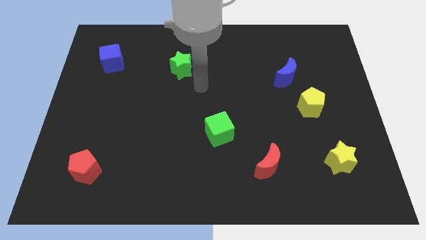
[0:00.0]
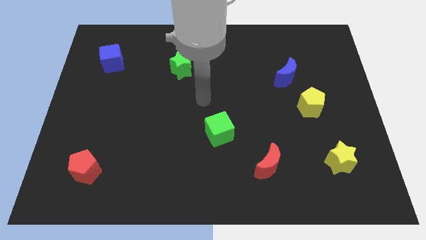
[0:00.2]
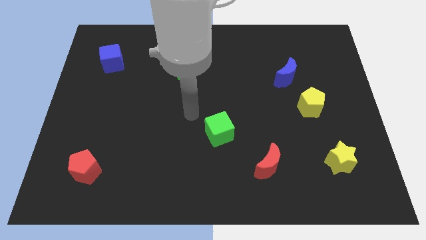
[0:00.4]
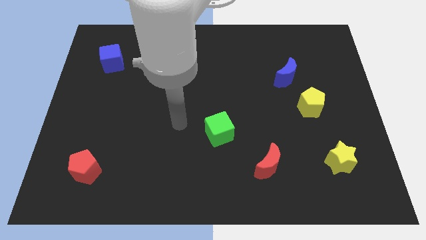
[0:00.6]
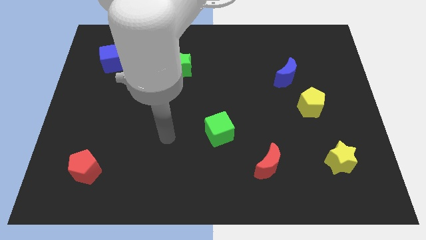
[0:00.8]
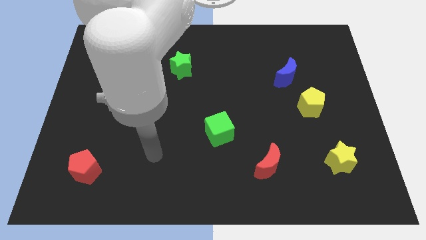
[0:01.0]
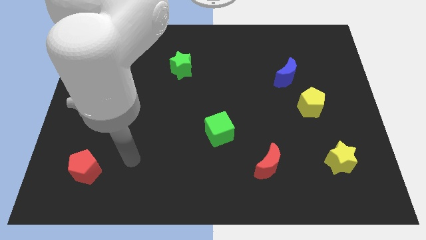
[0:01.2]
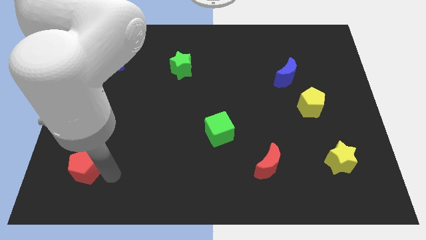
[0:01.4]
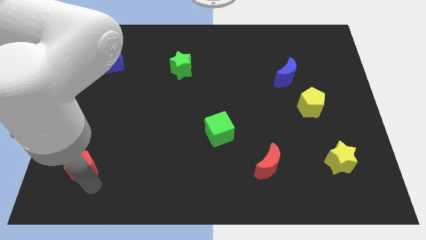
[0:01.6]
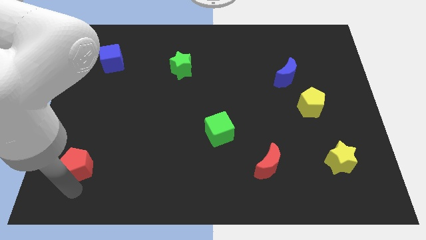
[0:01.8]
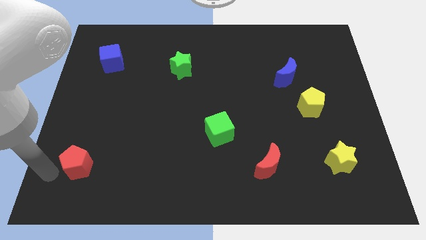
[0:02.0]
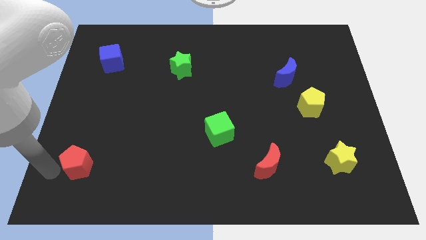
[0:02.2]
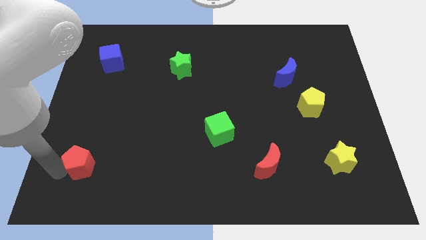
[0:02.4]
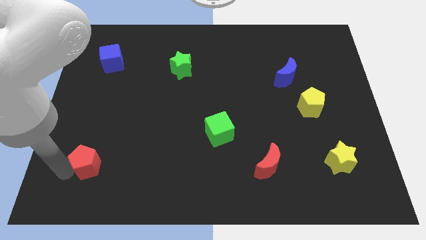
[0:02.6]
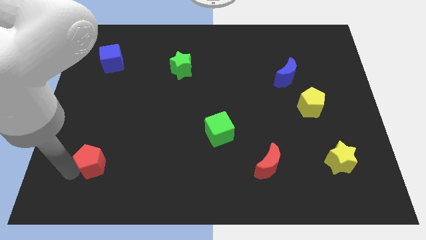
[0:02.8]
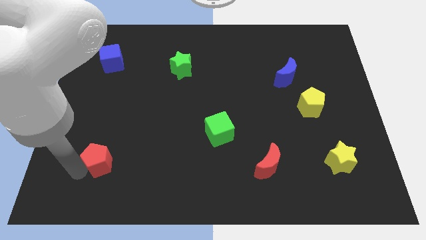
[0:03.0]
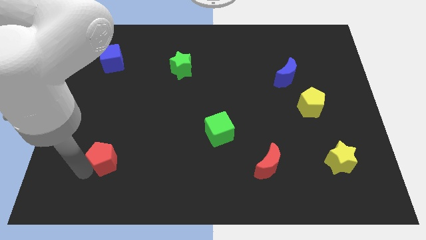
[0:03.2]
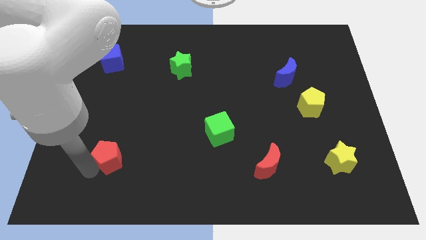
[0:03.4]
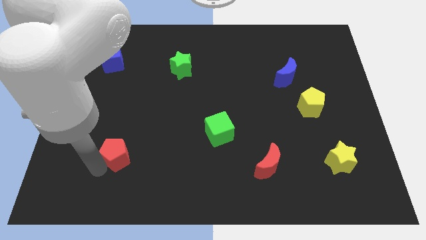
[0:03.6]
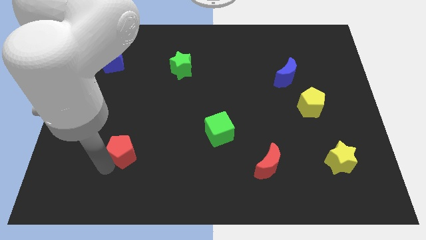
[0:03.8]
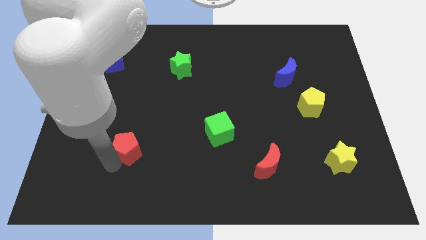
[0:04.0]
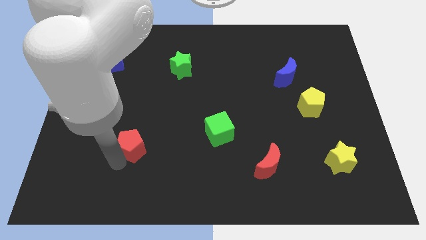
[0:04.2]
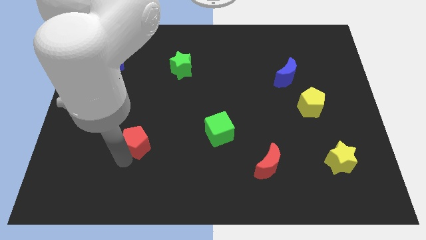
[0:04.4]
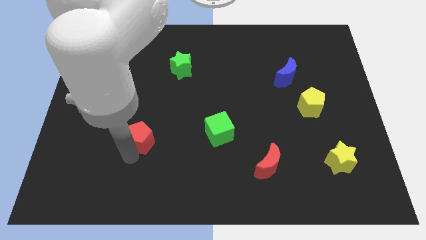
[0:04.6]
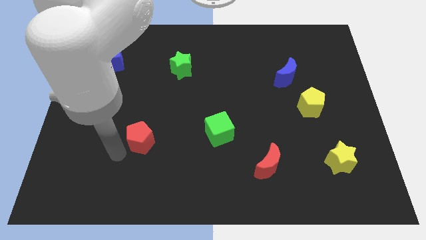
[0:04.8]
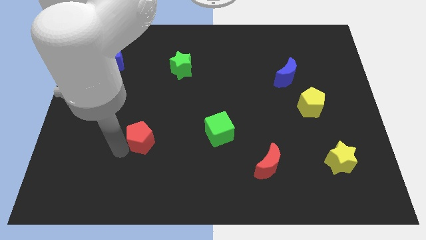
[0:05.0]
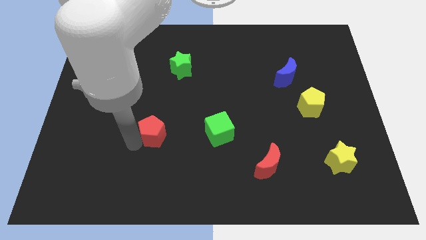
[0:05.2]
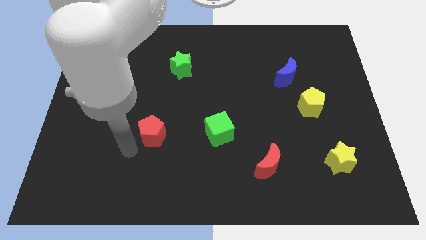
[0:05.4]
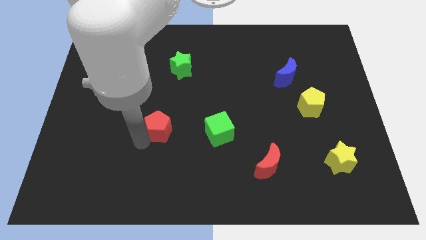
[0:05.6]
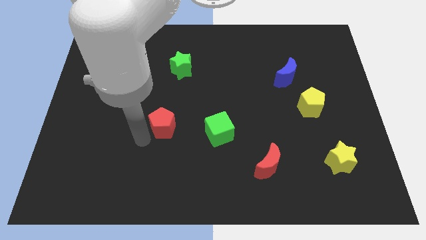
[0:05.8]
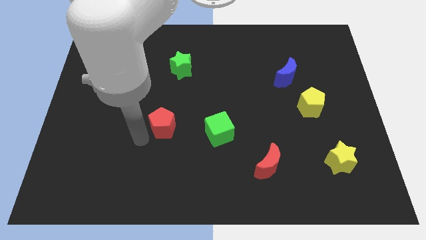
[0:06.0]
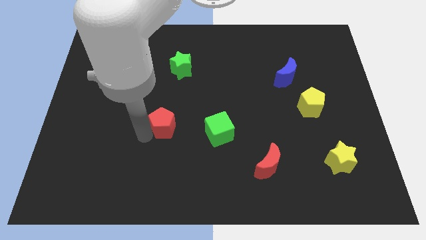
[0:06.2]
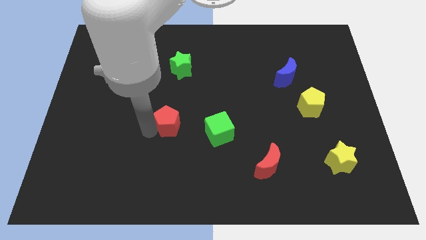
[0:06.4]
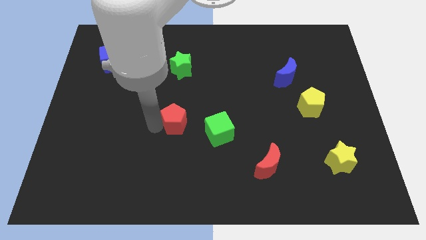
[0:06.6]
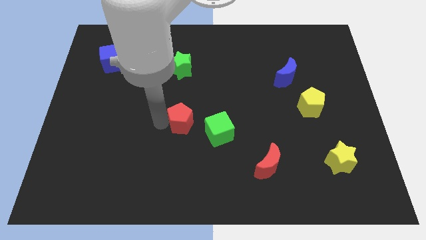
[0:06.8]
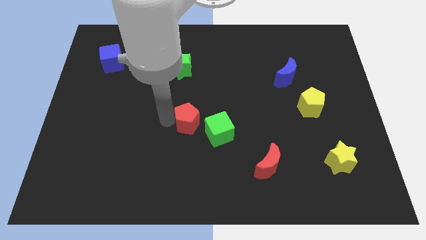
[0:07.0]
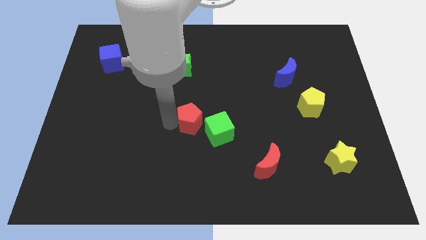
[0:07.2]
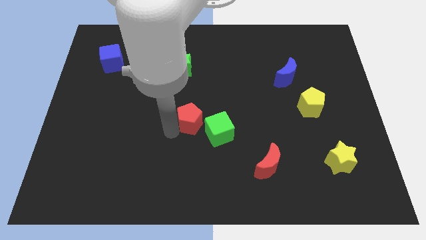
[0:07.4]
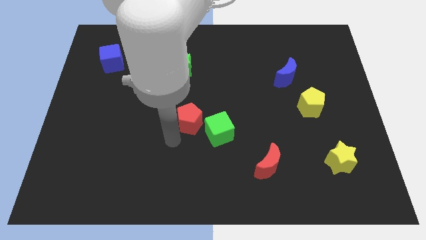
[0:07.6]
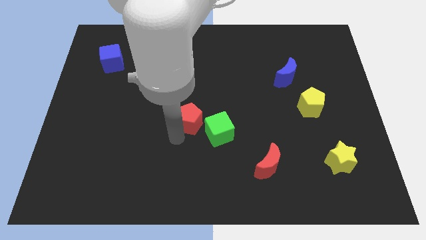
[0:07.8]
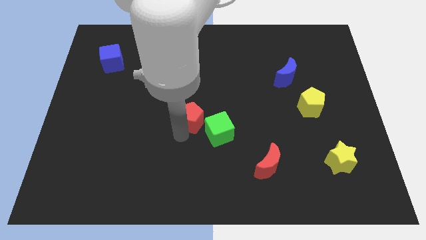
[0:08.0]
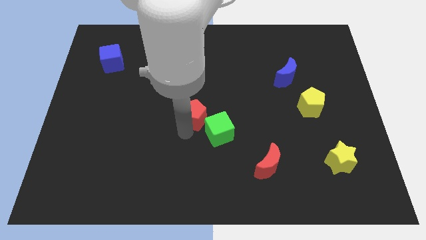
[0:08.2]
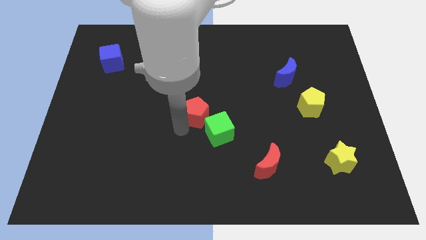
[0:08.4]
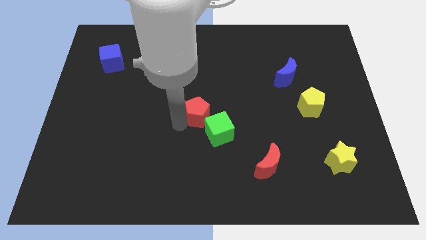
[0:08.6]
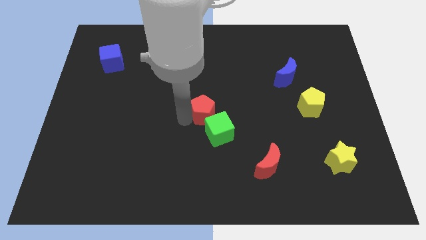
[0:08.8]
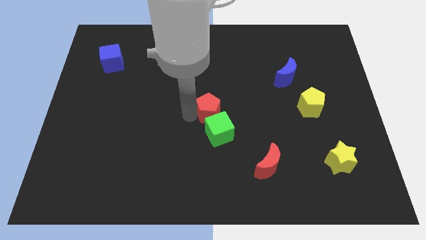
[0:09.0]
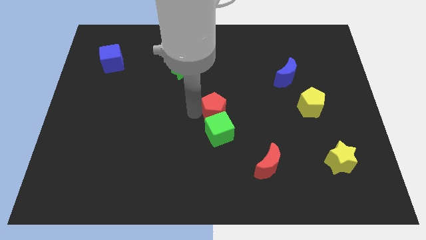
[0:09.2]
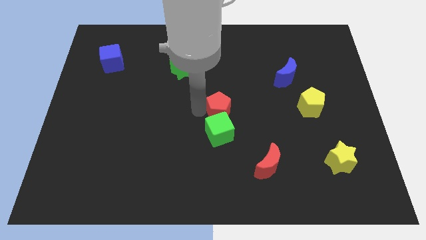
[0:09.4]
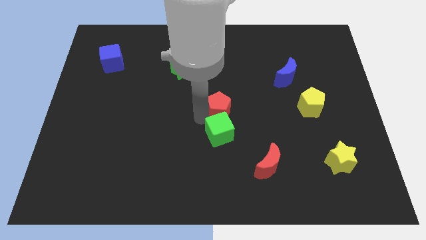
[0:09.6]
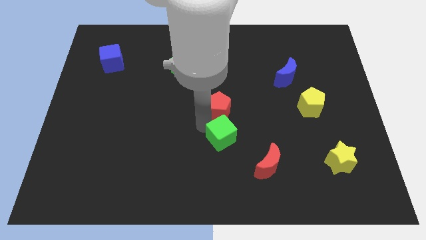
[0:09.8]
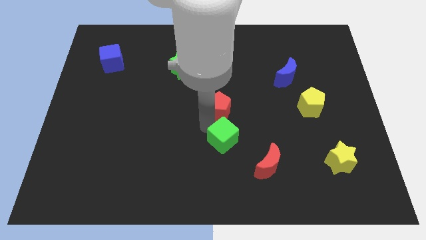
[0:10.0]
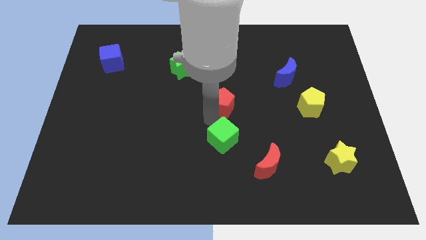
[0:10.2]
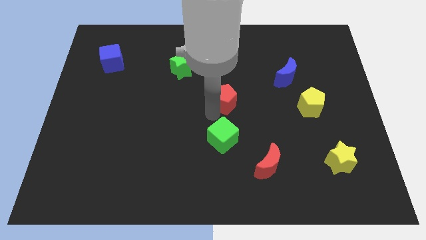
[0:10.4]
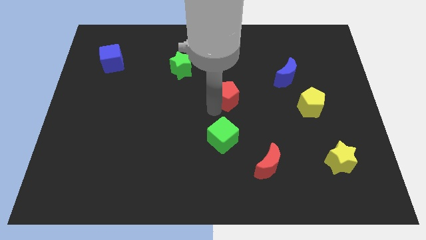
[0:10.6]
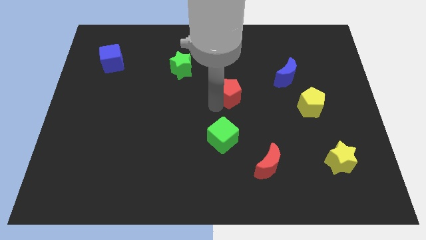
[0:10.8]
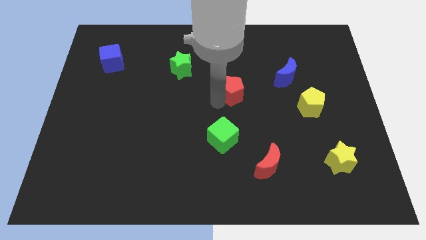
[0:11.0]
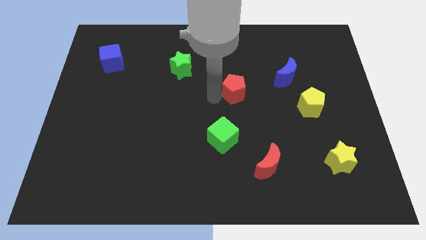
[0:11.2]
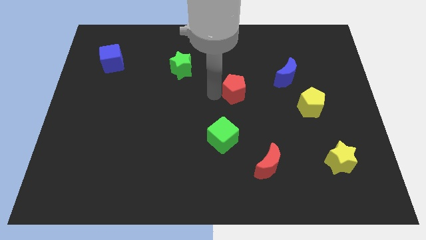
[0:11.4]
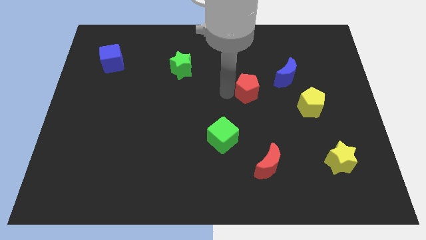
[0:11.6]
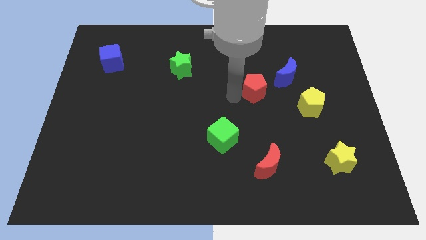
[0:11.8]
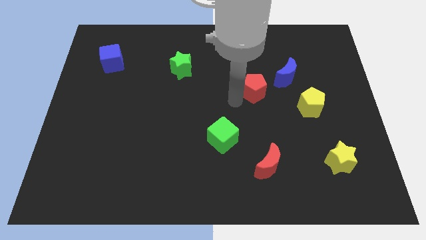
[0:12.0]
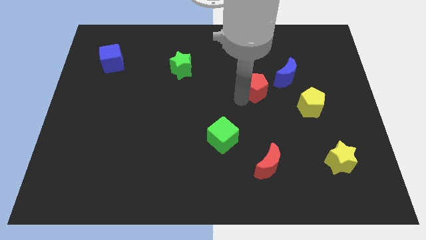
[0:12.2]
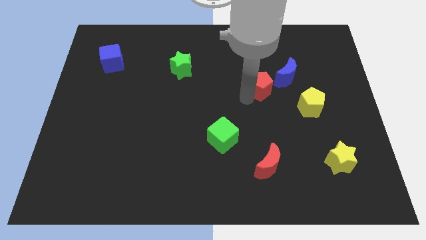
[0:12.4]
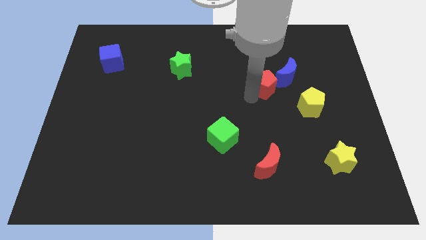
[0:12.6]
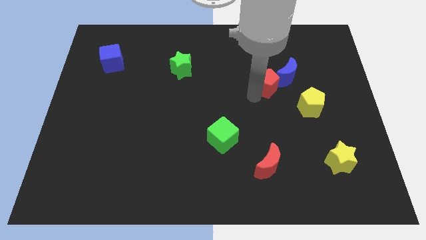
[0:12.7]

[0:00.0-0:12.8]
push the red pentagon next to the blue moon

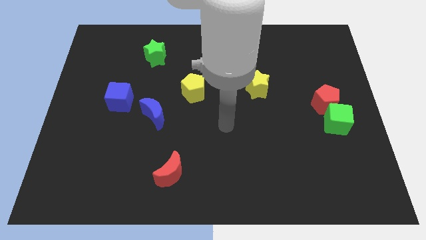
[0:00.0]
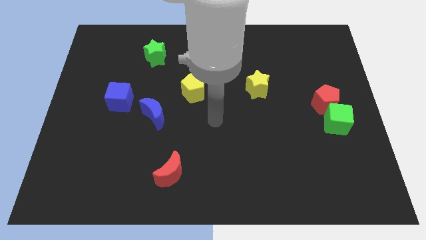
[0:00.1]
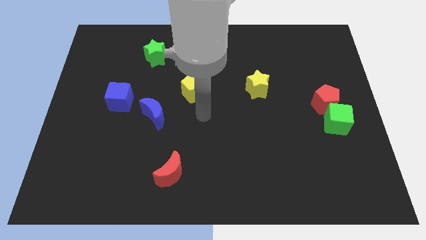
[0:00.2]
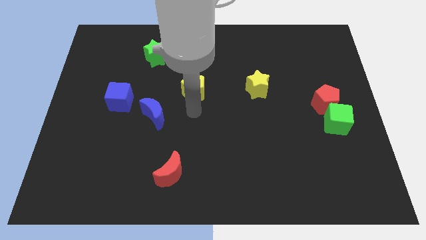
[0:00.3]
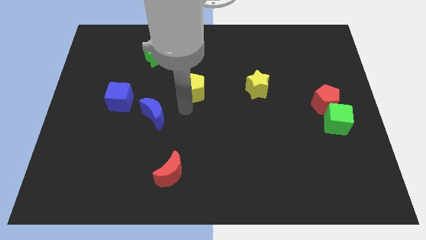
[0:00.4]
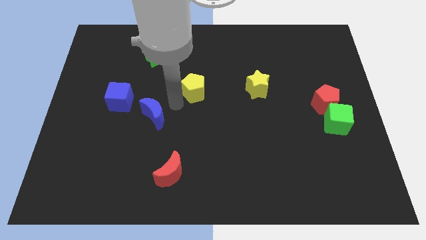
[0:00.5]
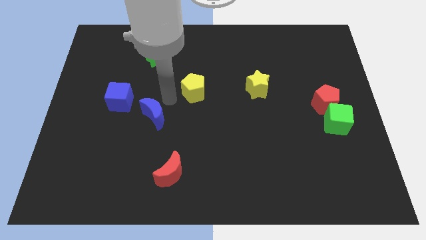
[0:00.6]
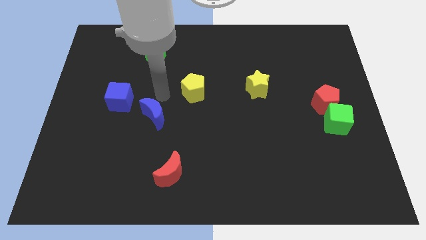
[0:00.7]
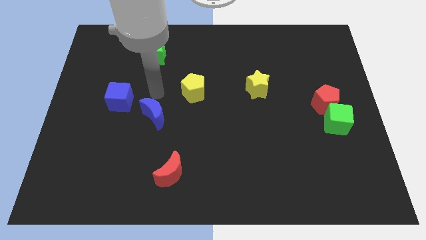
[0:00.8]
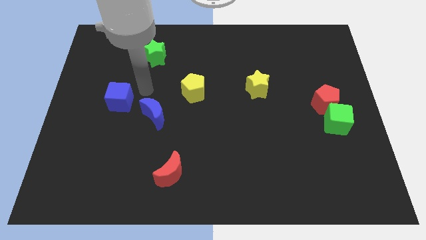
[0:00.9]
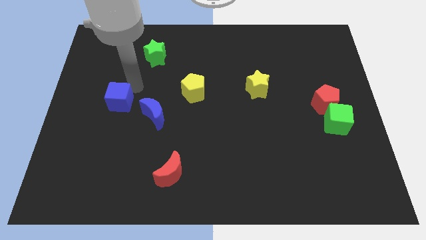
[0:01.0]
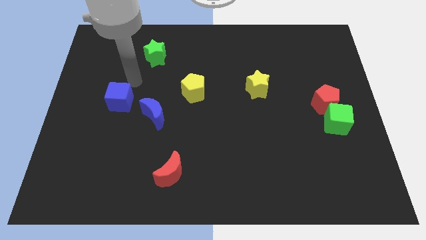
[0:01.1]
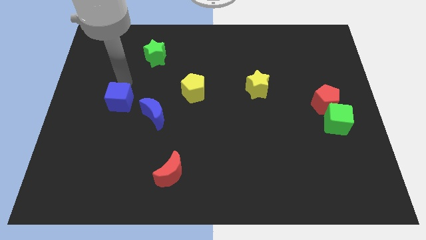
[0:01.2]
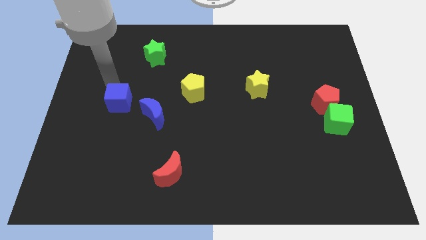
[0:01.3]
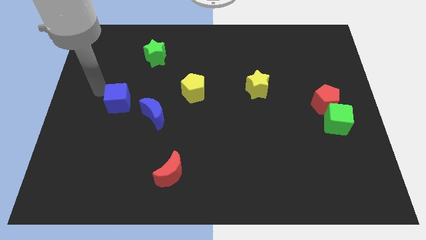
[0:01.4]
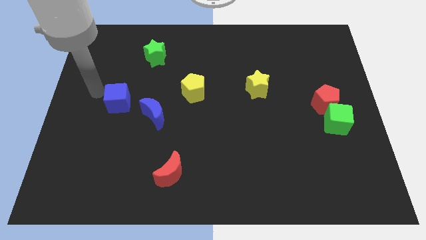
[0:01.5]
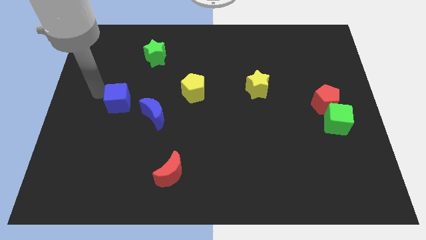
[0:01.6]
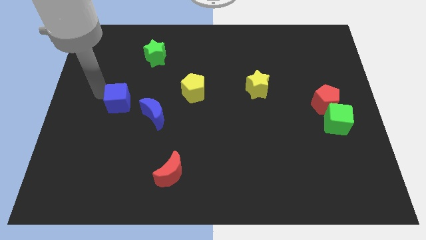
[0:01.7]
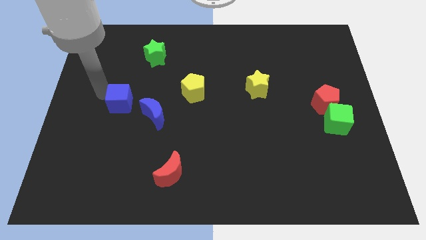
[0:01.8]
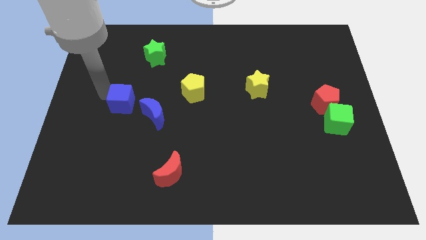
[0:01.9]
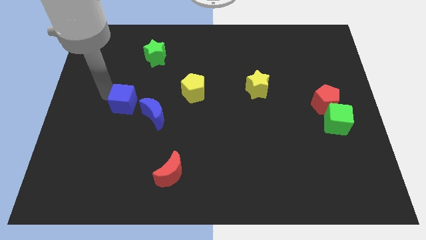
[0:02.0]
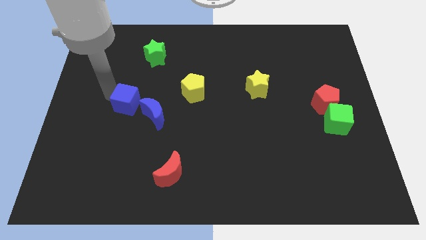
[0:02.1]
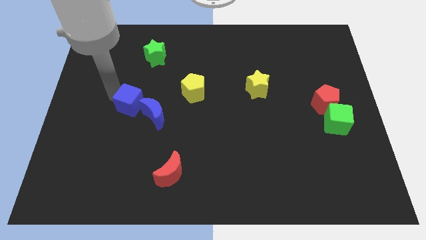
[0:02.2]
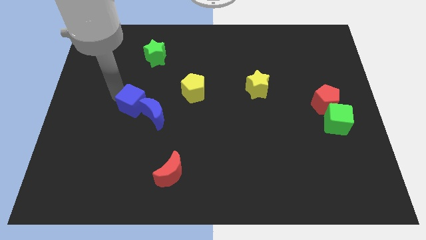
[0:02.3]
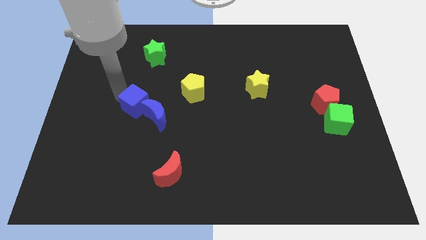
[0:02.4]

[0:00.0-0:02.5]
move the blue cube to the blue moon
